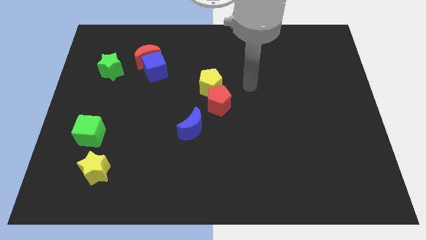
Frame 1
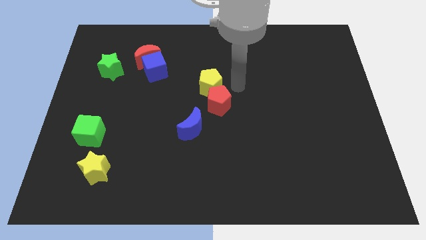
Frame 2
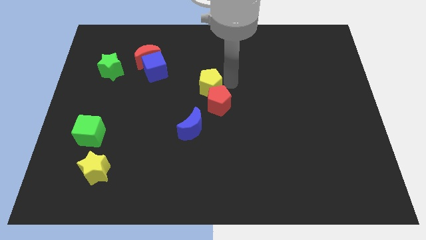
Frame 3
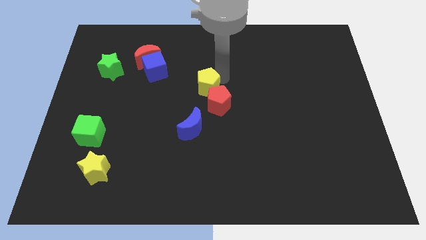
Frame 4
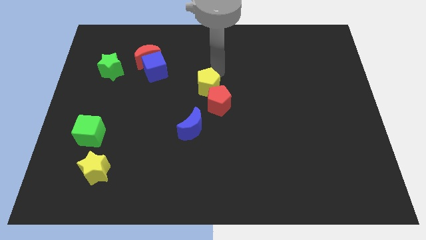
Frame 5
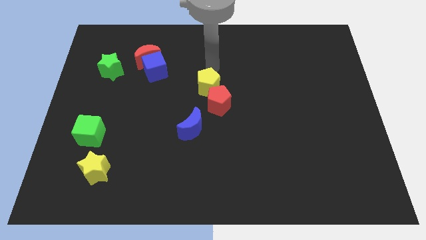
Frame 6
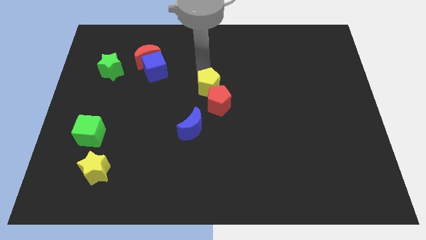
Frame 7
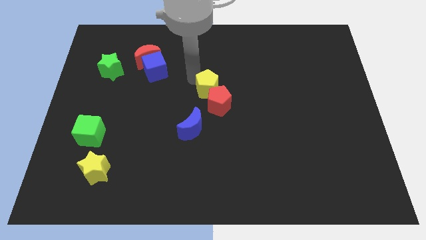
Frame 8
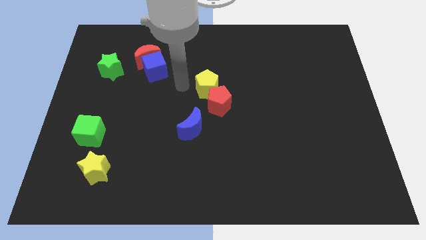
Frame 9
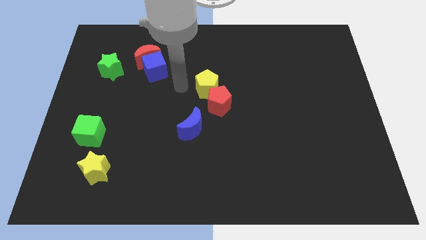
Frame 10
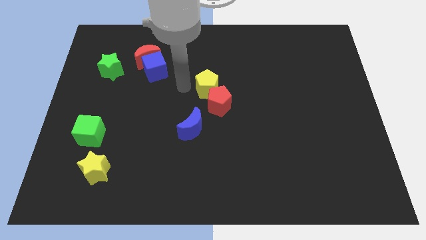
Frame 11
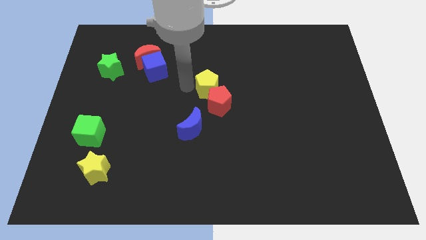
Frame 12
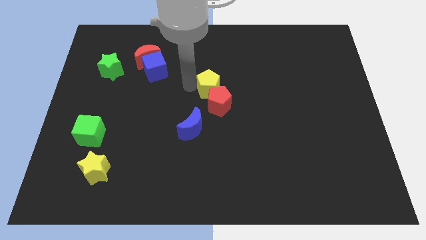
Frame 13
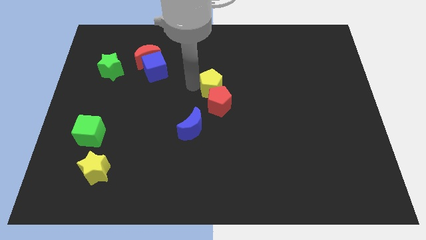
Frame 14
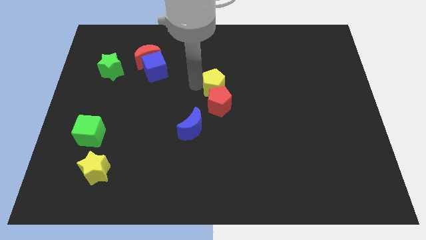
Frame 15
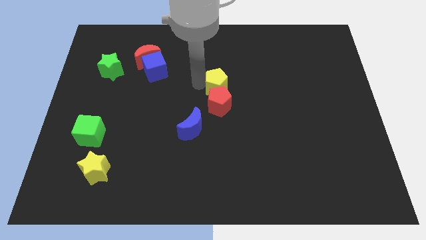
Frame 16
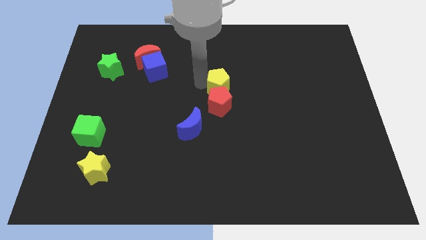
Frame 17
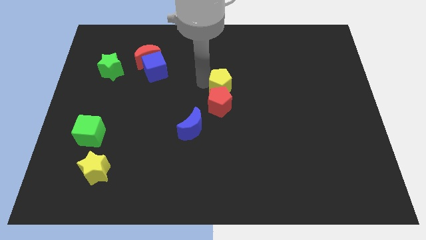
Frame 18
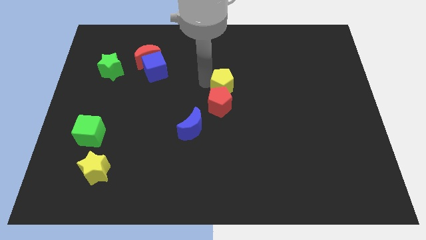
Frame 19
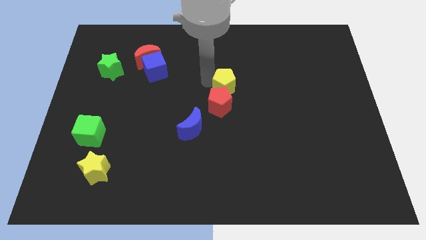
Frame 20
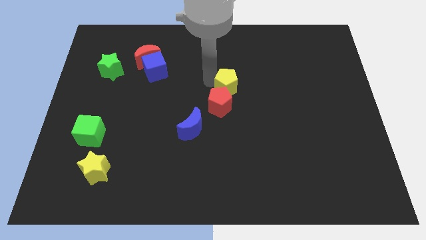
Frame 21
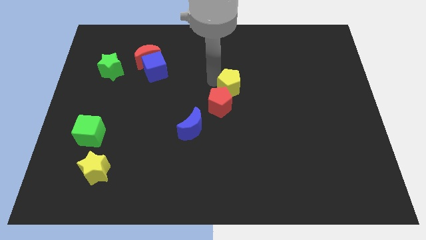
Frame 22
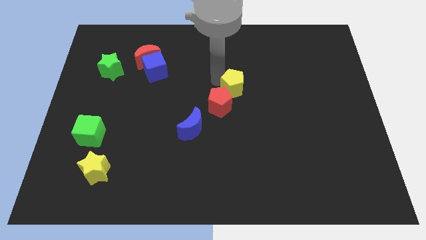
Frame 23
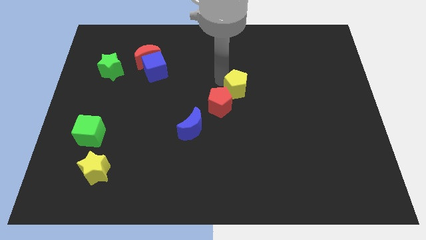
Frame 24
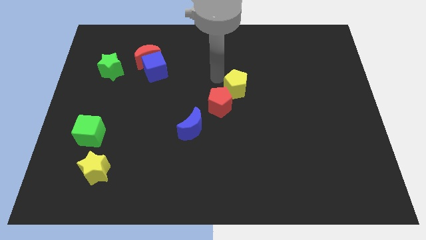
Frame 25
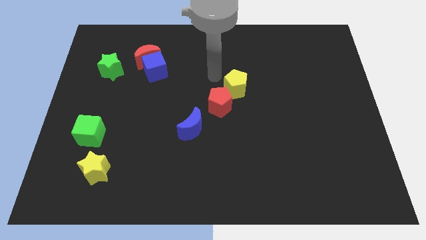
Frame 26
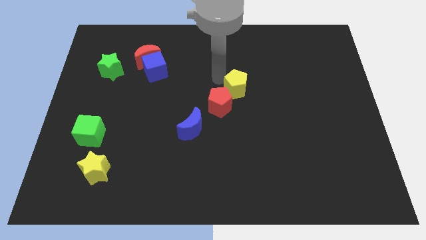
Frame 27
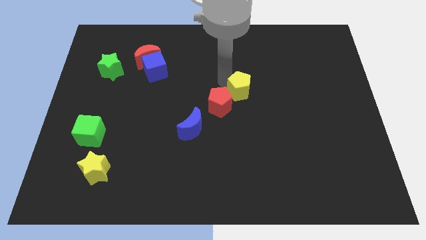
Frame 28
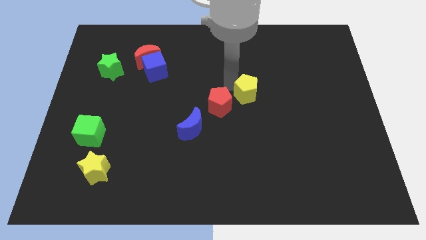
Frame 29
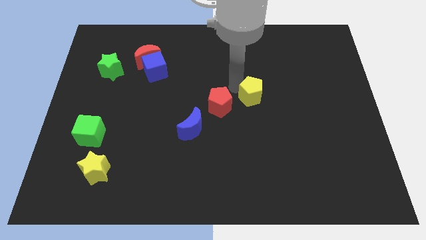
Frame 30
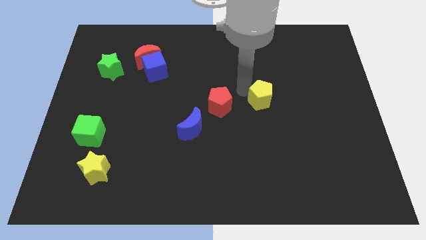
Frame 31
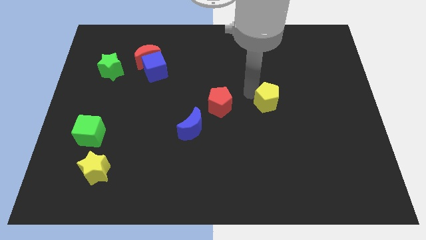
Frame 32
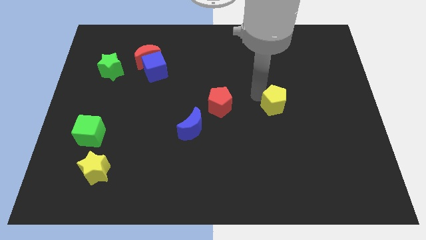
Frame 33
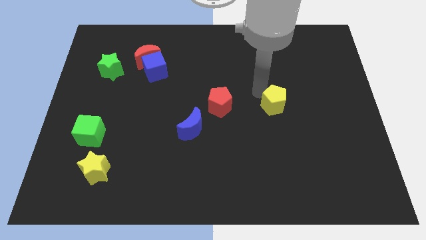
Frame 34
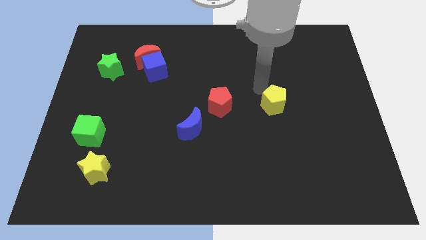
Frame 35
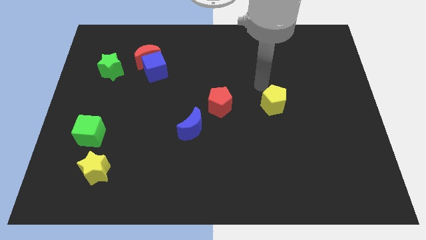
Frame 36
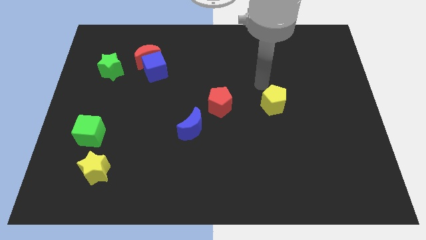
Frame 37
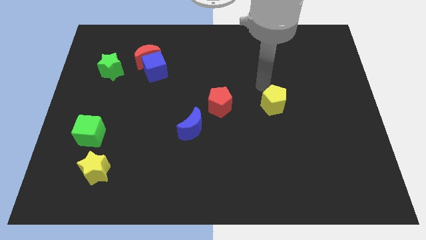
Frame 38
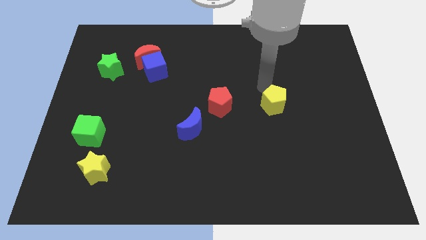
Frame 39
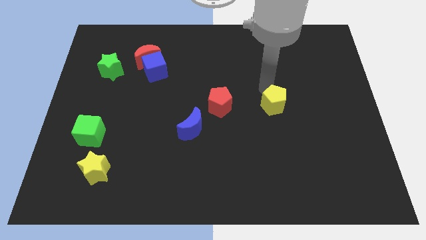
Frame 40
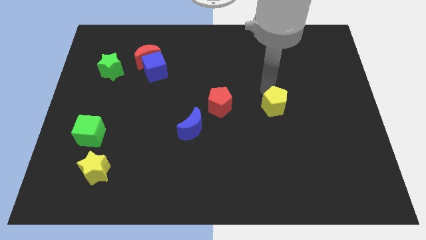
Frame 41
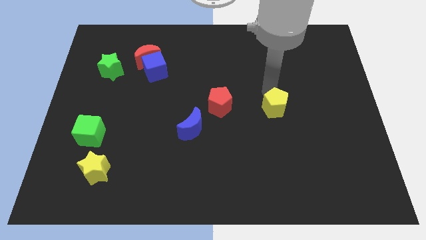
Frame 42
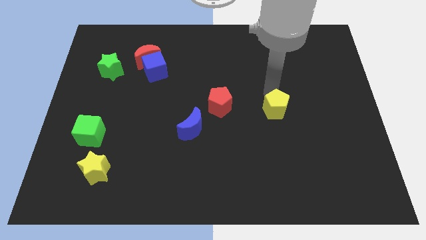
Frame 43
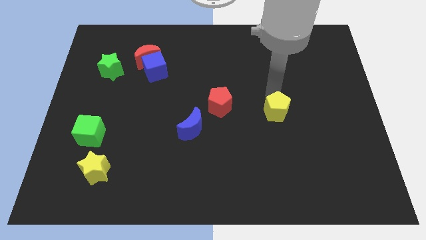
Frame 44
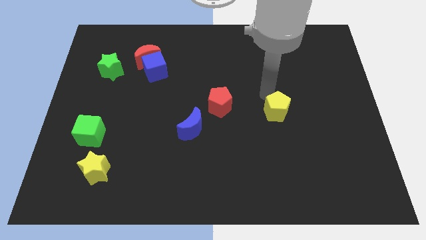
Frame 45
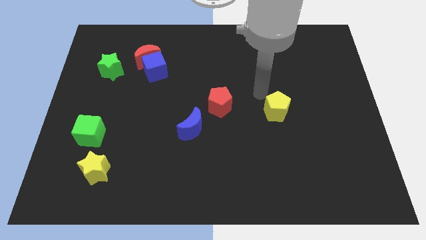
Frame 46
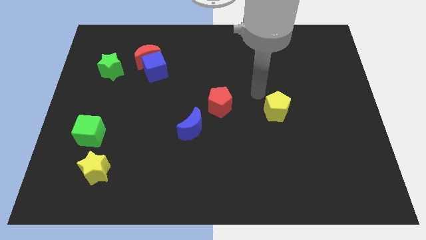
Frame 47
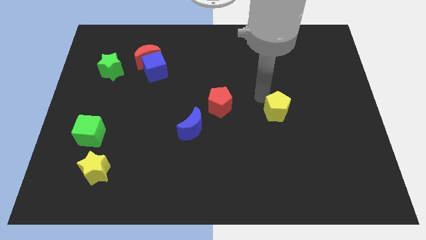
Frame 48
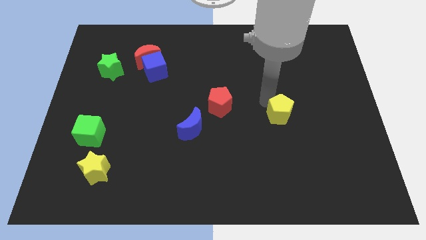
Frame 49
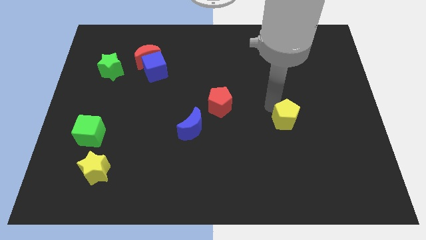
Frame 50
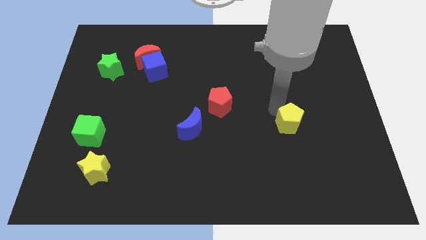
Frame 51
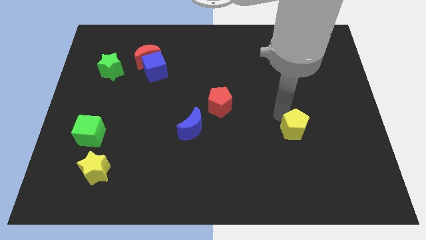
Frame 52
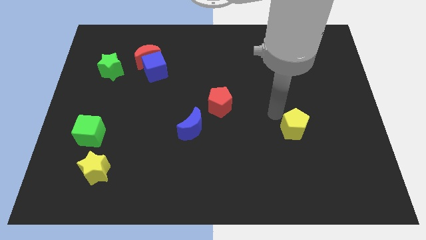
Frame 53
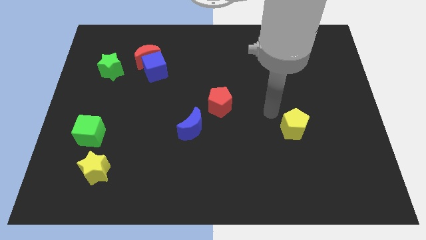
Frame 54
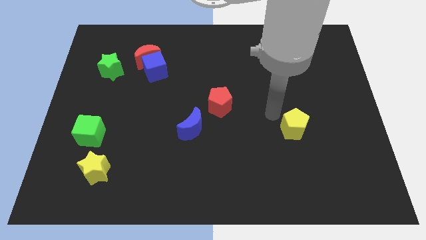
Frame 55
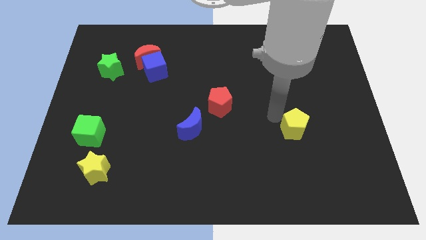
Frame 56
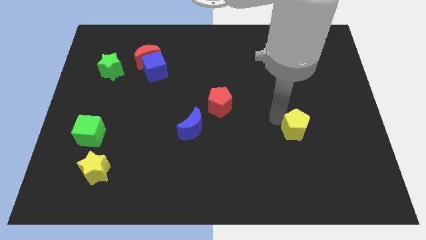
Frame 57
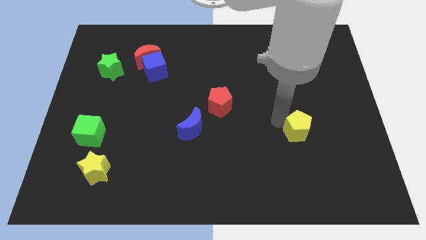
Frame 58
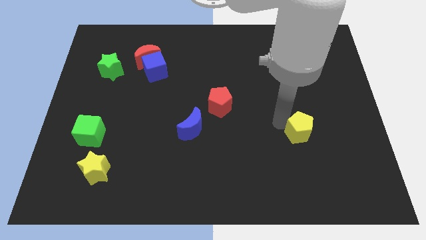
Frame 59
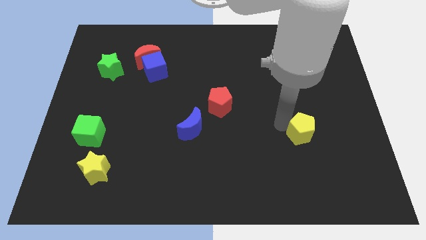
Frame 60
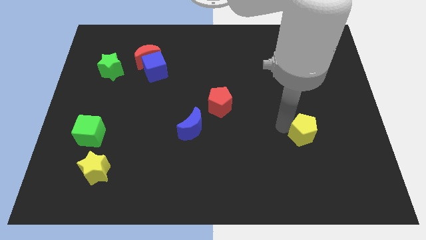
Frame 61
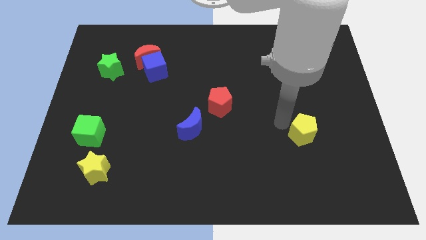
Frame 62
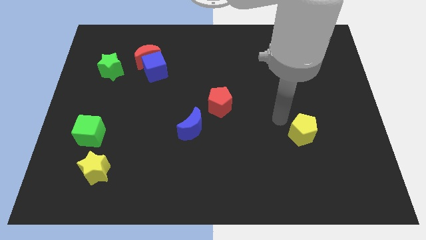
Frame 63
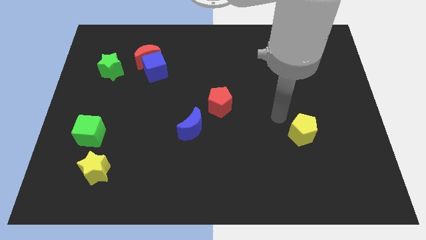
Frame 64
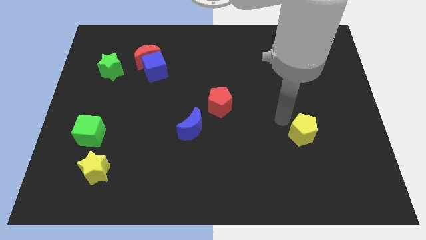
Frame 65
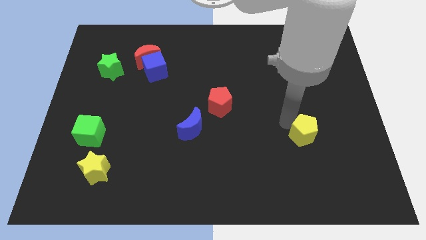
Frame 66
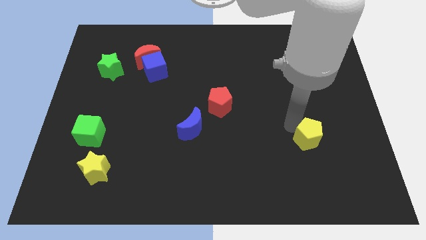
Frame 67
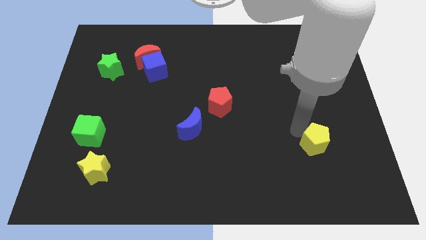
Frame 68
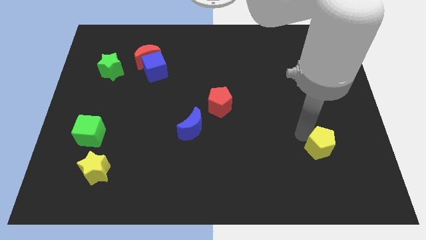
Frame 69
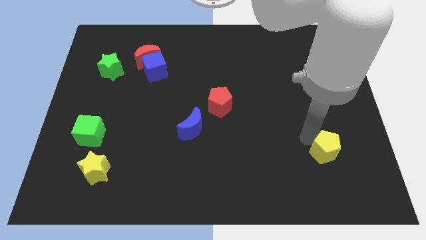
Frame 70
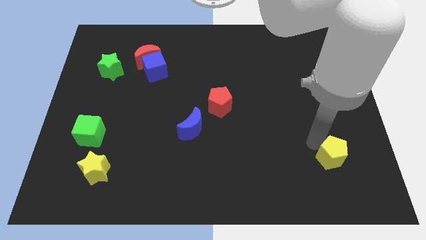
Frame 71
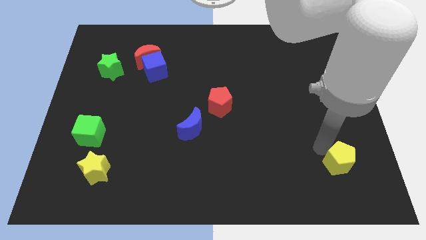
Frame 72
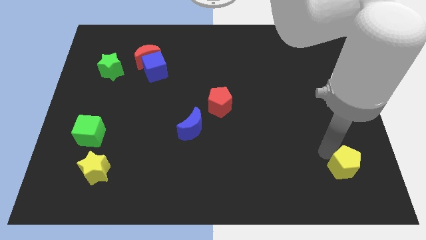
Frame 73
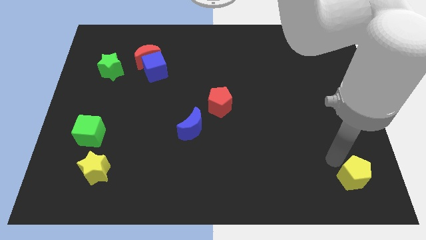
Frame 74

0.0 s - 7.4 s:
move the yellow pentagon to the bottom right
